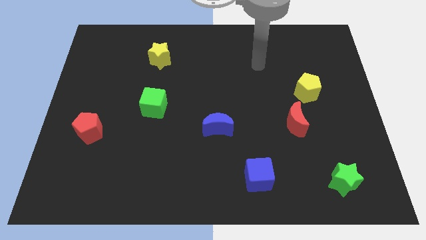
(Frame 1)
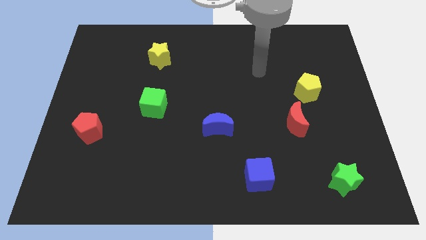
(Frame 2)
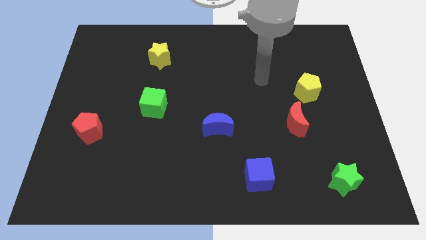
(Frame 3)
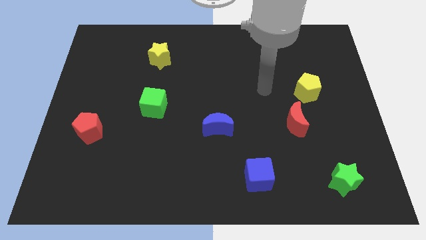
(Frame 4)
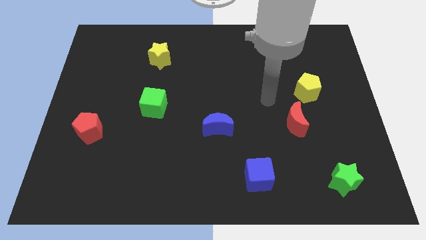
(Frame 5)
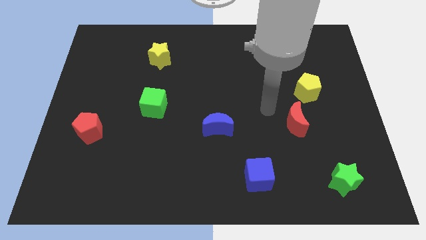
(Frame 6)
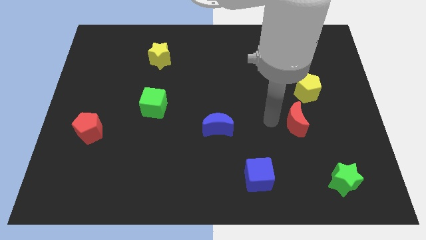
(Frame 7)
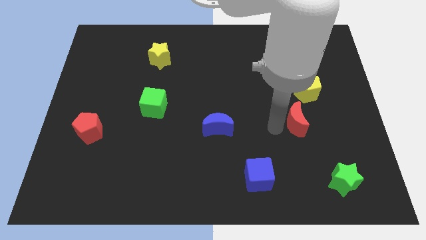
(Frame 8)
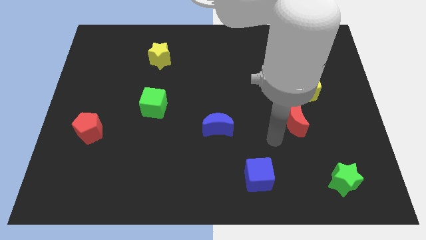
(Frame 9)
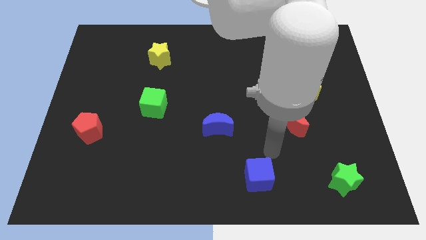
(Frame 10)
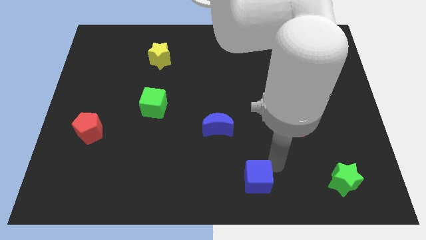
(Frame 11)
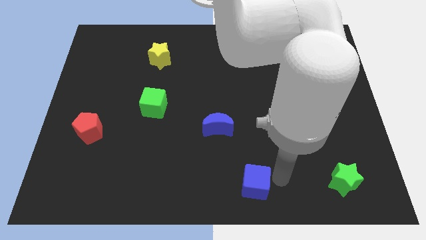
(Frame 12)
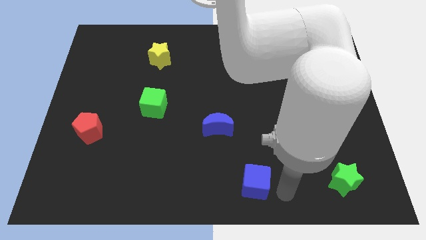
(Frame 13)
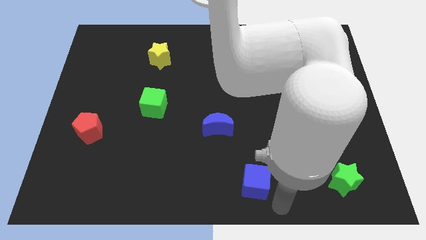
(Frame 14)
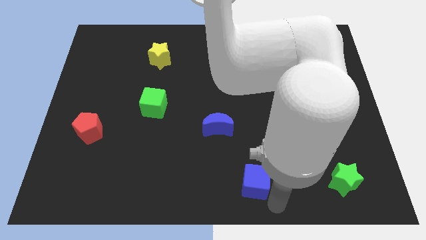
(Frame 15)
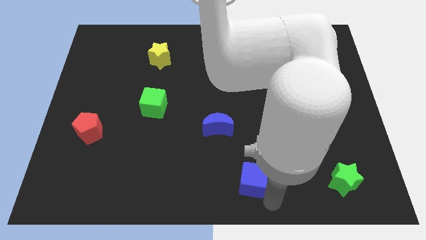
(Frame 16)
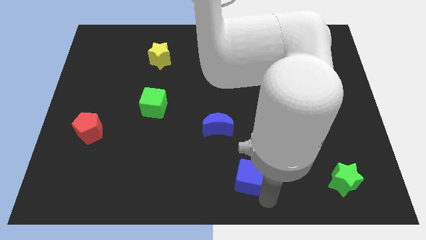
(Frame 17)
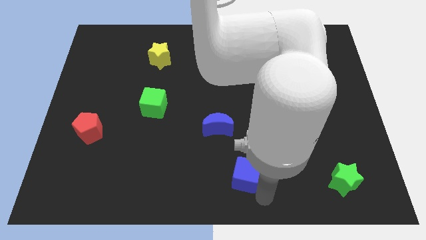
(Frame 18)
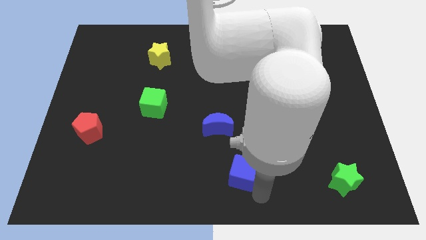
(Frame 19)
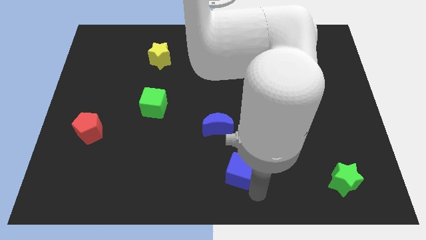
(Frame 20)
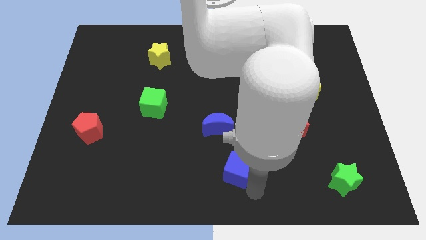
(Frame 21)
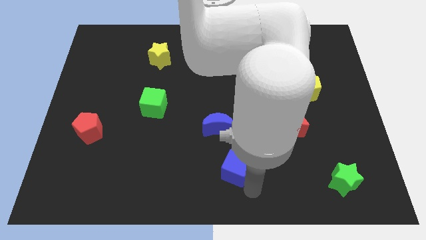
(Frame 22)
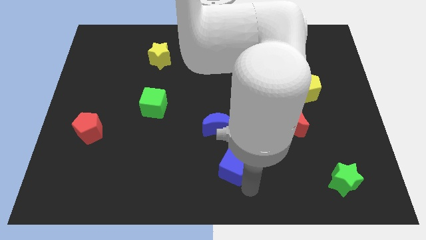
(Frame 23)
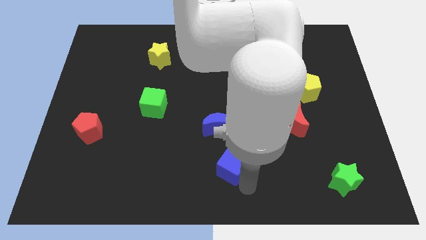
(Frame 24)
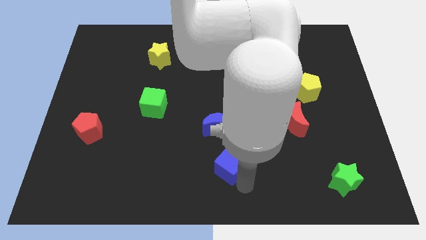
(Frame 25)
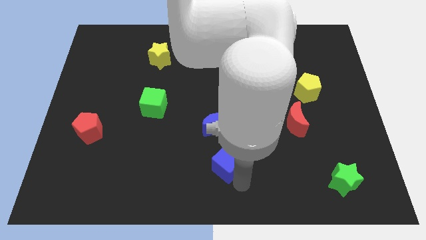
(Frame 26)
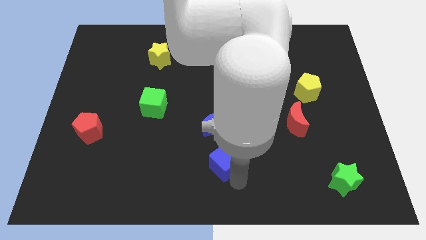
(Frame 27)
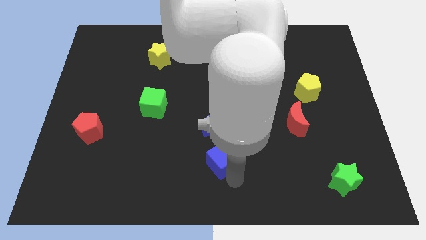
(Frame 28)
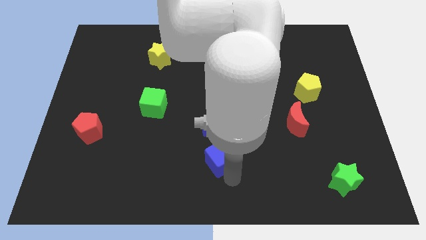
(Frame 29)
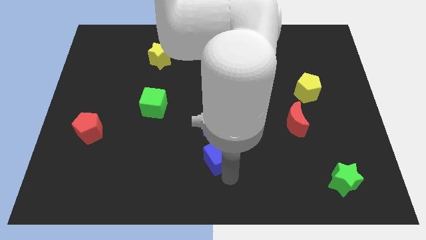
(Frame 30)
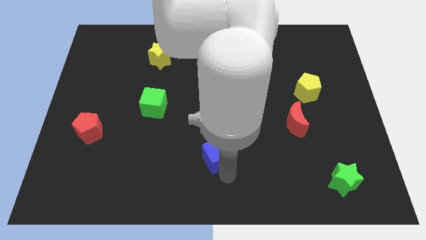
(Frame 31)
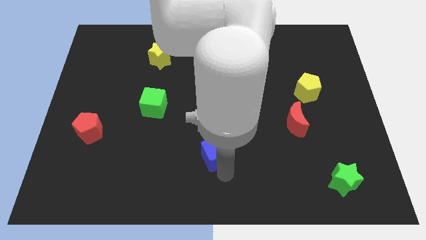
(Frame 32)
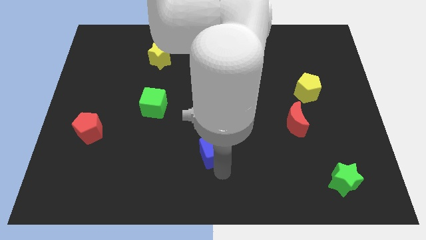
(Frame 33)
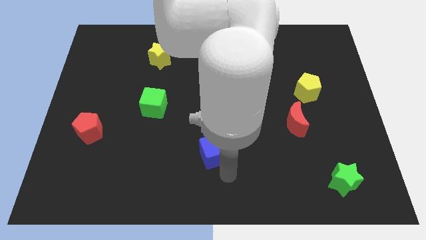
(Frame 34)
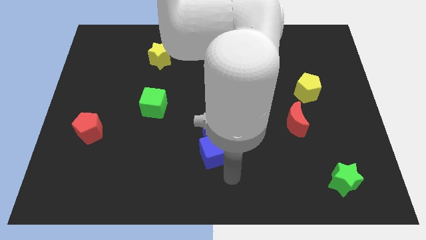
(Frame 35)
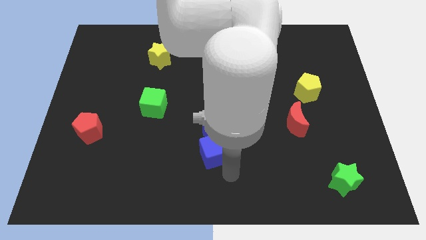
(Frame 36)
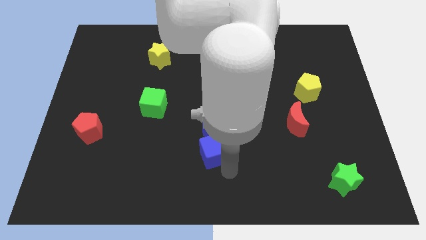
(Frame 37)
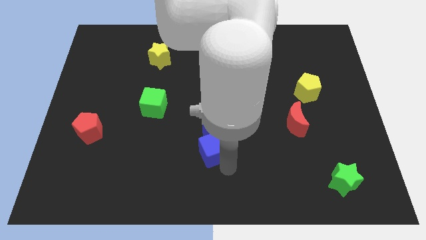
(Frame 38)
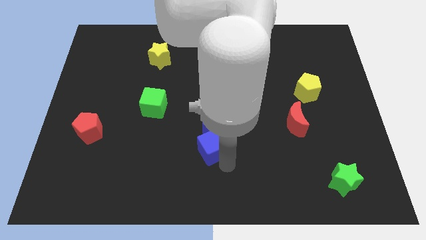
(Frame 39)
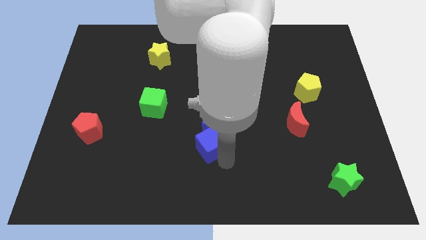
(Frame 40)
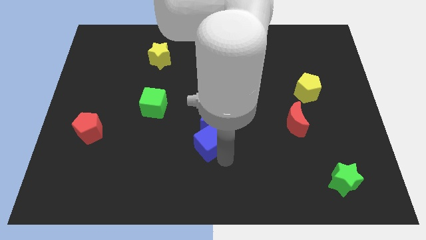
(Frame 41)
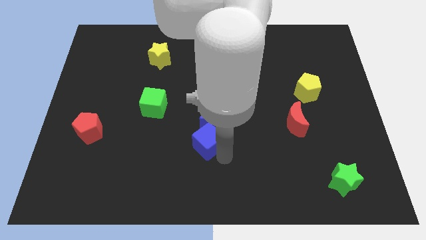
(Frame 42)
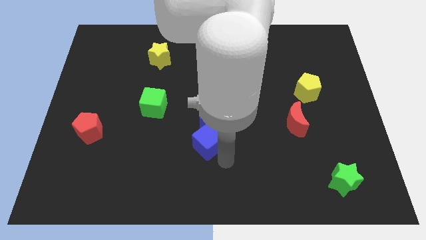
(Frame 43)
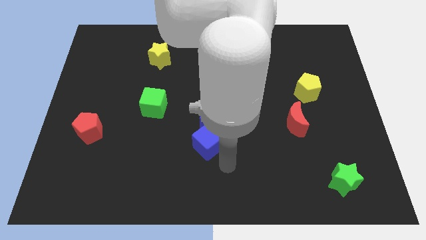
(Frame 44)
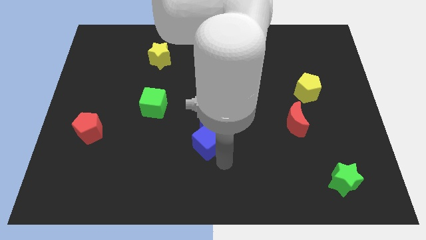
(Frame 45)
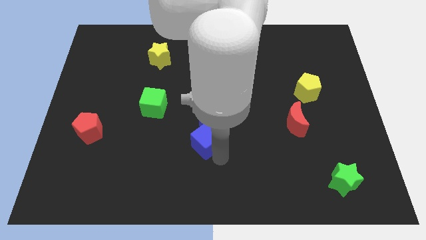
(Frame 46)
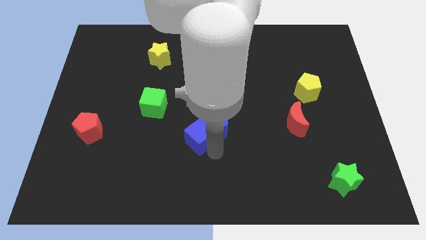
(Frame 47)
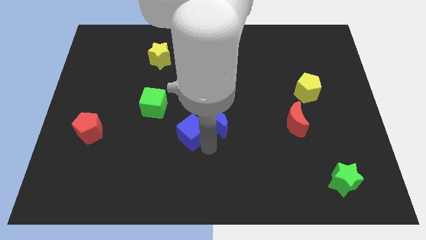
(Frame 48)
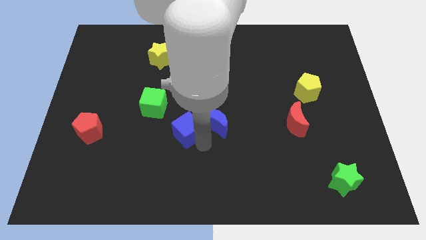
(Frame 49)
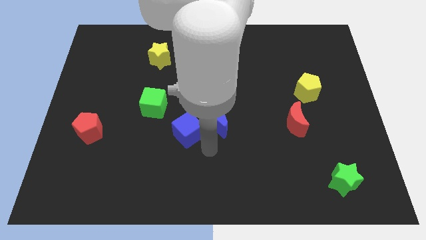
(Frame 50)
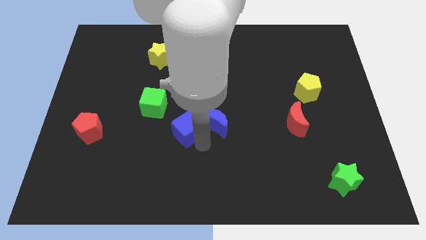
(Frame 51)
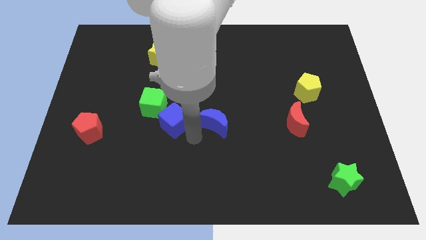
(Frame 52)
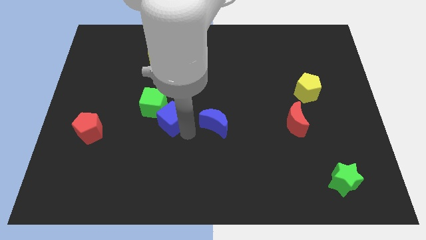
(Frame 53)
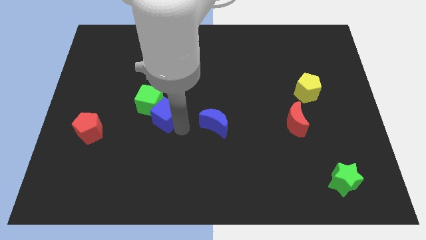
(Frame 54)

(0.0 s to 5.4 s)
put the blue cube next to the green cube

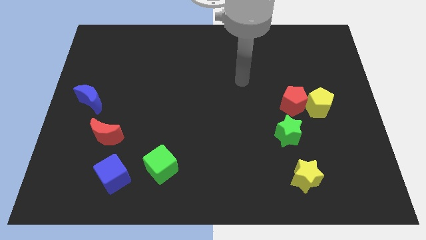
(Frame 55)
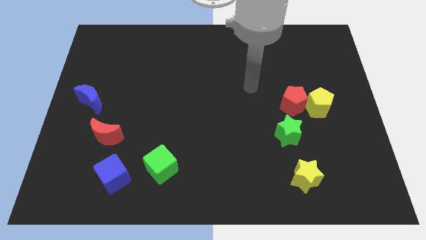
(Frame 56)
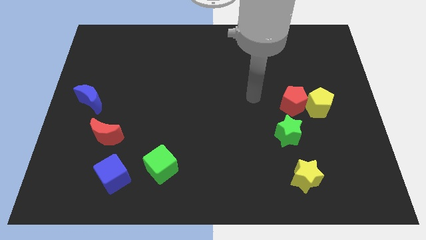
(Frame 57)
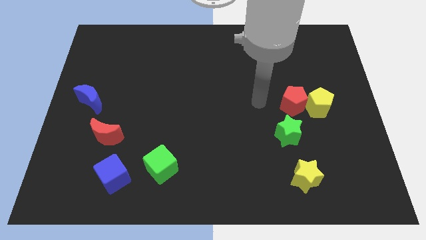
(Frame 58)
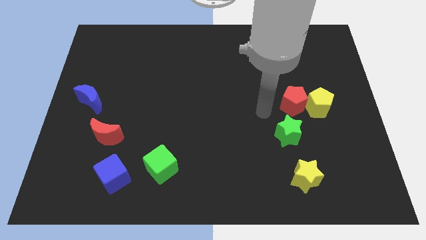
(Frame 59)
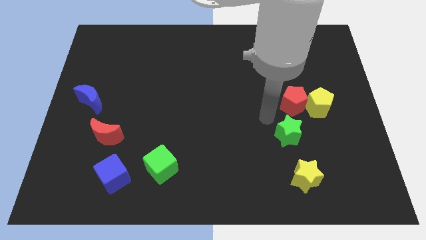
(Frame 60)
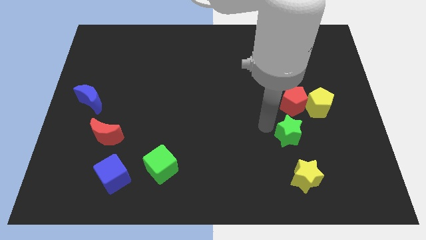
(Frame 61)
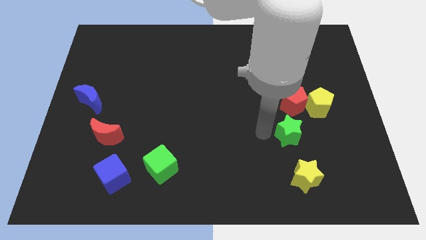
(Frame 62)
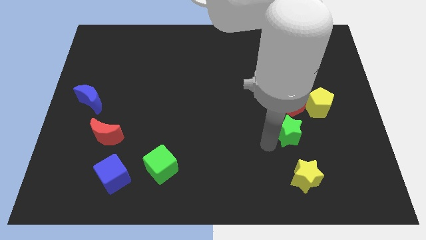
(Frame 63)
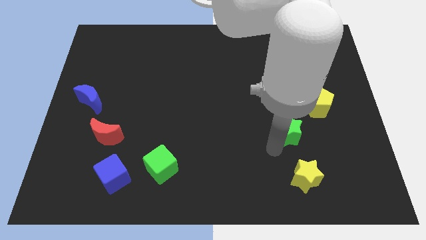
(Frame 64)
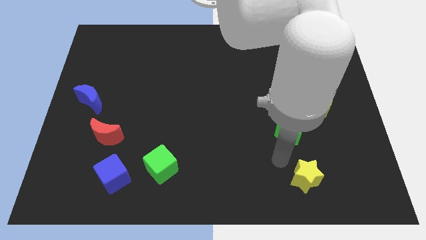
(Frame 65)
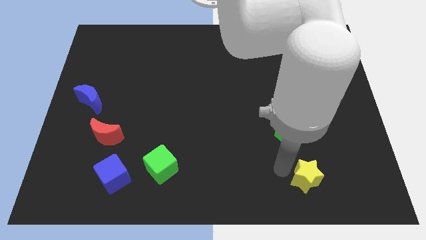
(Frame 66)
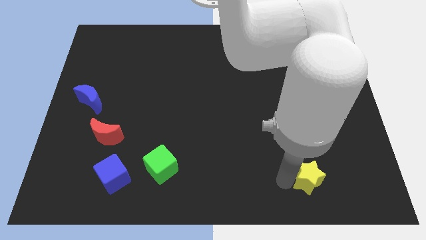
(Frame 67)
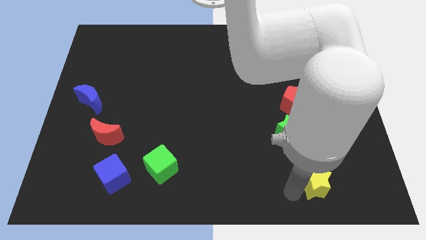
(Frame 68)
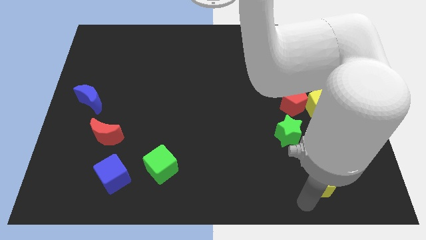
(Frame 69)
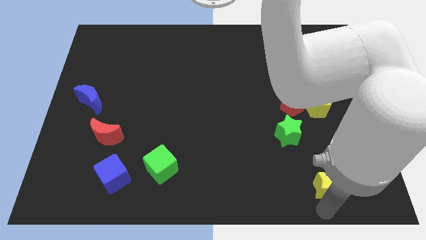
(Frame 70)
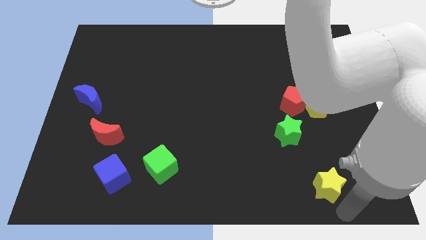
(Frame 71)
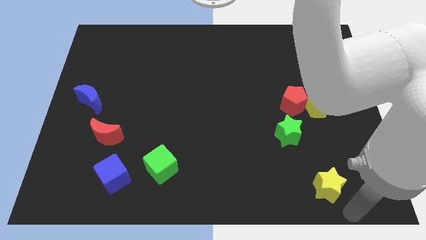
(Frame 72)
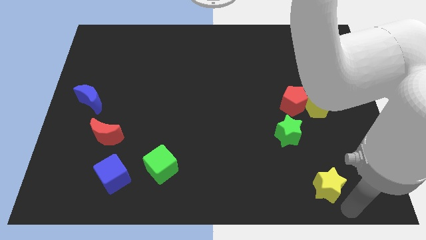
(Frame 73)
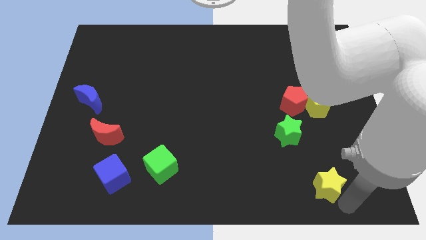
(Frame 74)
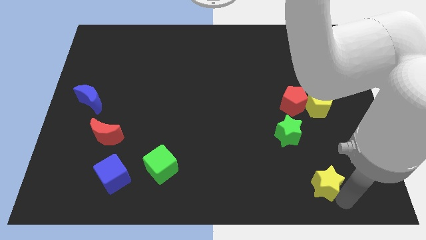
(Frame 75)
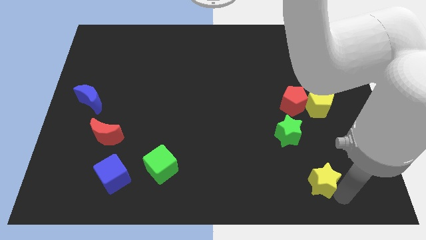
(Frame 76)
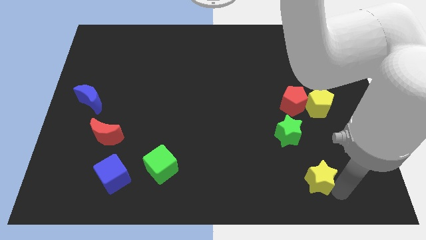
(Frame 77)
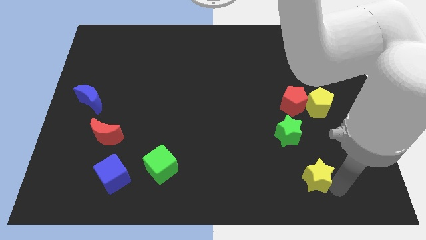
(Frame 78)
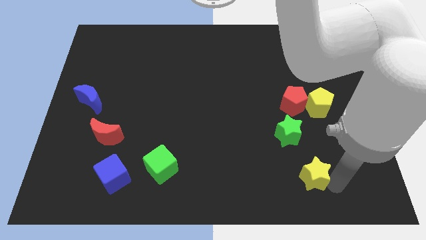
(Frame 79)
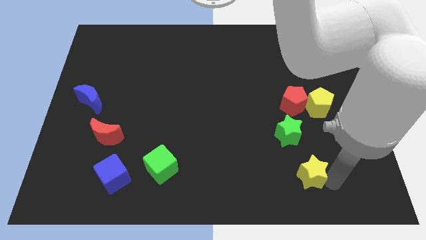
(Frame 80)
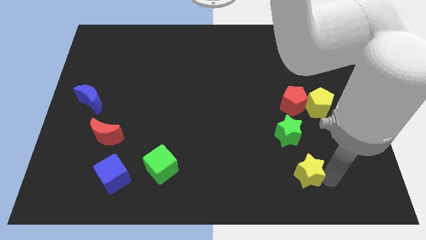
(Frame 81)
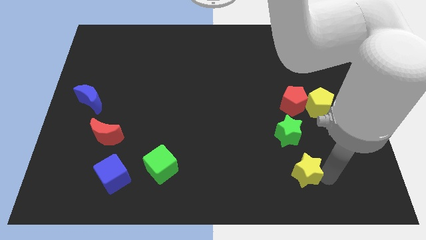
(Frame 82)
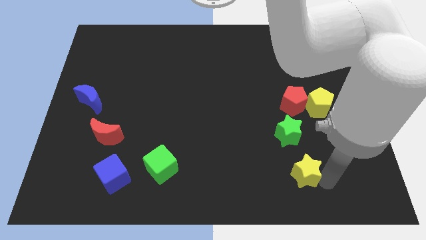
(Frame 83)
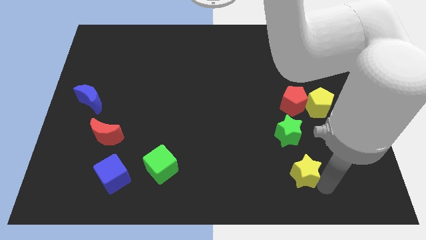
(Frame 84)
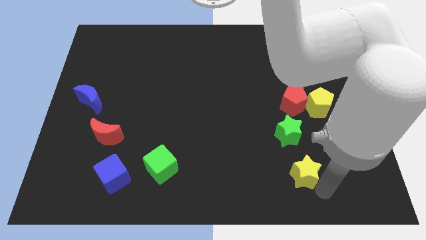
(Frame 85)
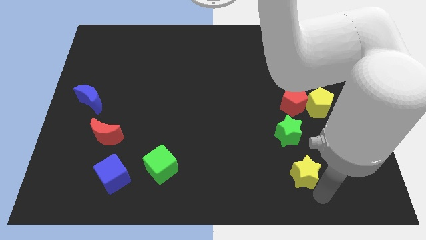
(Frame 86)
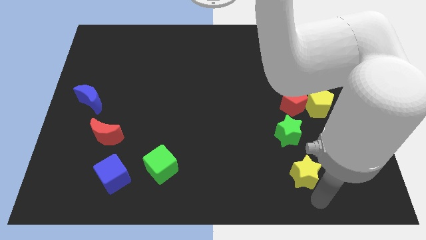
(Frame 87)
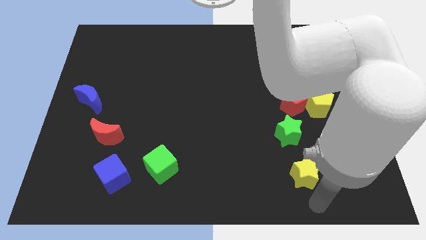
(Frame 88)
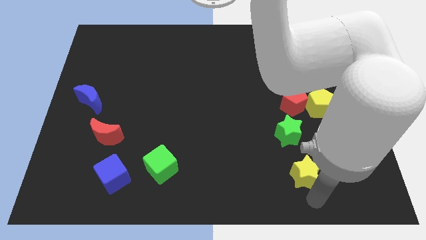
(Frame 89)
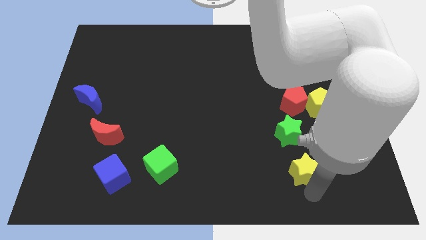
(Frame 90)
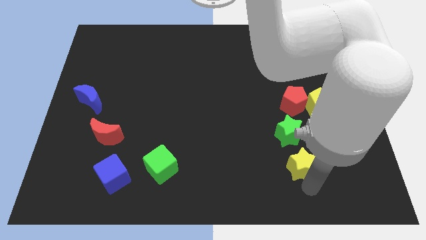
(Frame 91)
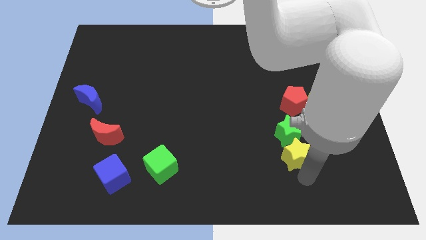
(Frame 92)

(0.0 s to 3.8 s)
move the yellow star towards the green star
